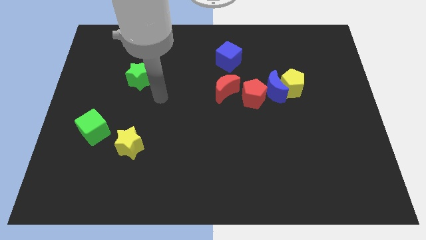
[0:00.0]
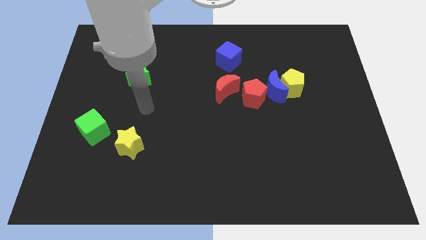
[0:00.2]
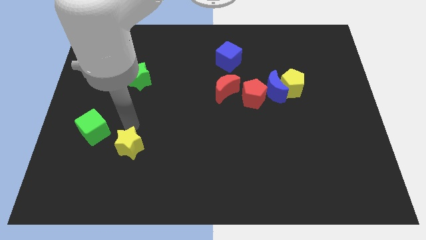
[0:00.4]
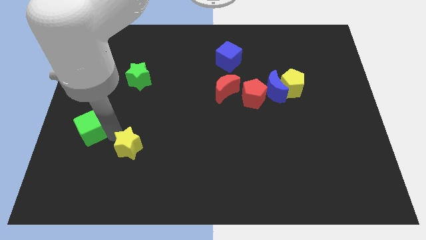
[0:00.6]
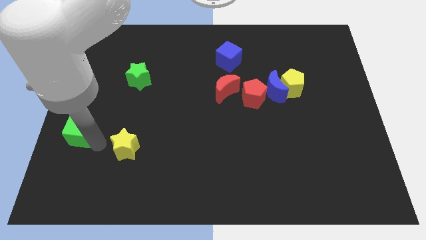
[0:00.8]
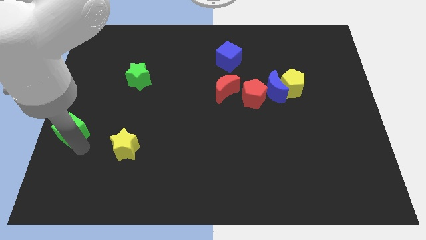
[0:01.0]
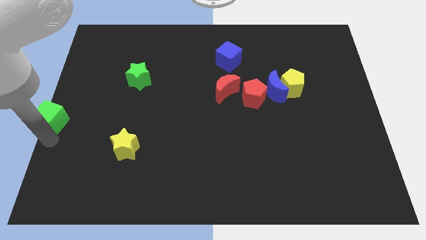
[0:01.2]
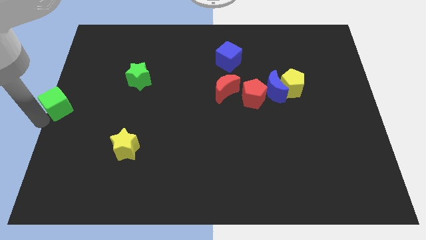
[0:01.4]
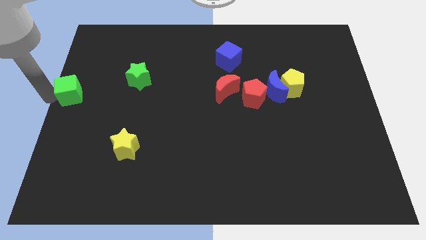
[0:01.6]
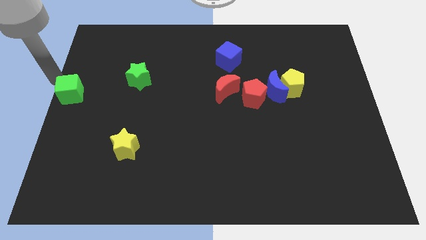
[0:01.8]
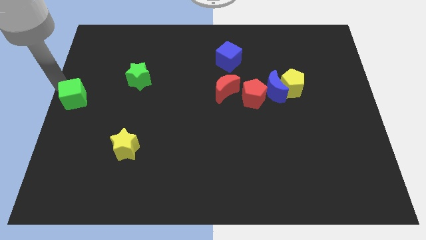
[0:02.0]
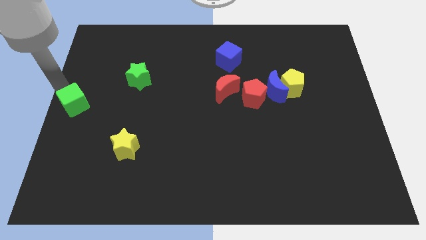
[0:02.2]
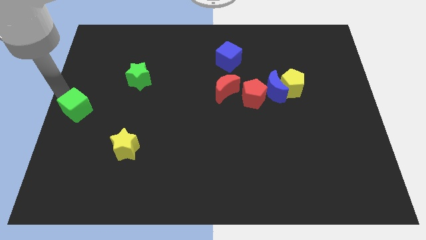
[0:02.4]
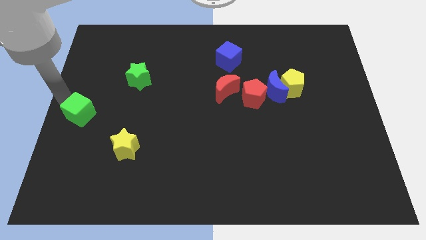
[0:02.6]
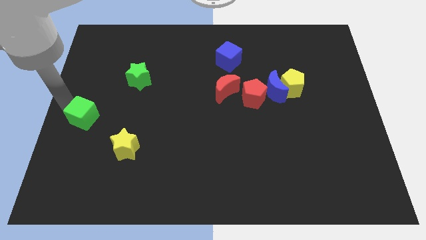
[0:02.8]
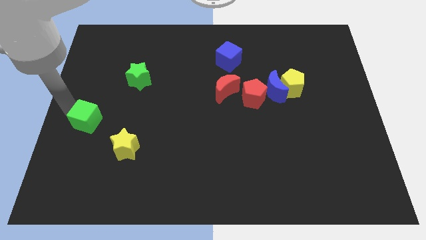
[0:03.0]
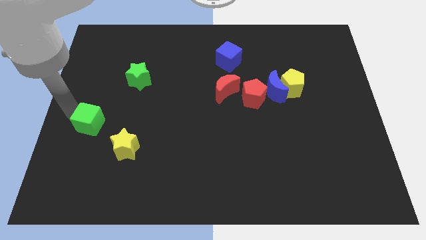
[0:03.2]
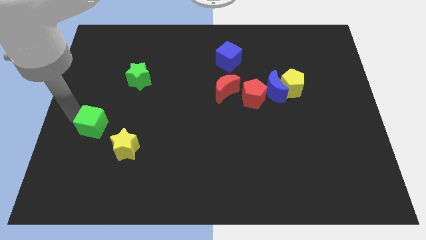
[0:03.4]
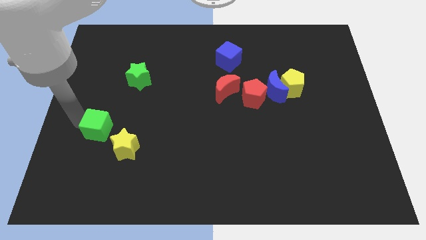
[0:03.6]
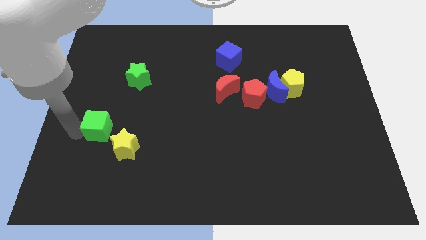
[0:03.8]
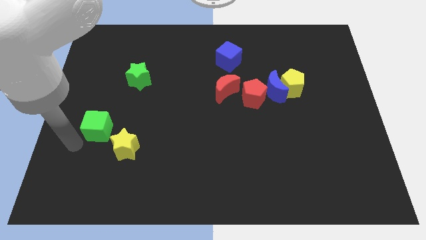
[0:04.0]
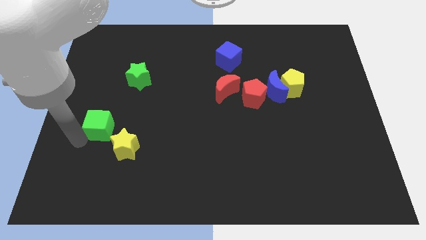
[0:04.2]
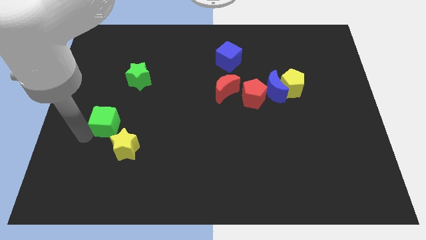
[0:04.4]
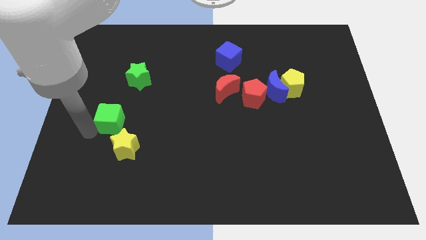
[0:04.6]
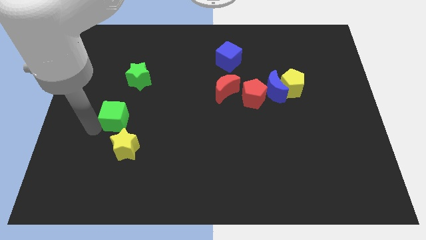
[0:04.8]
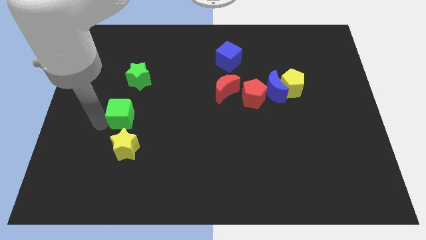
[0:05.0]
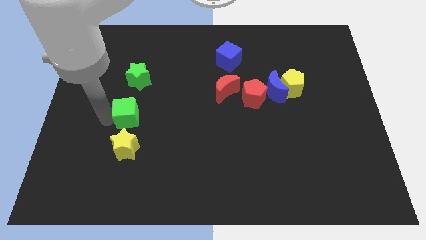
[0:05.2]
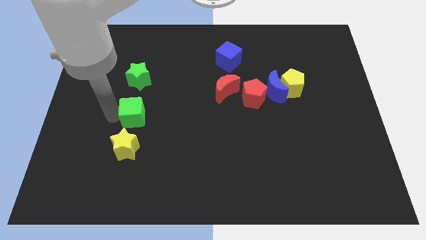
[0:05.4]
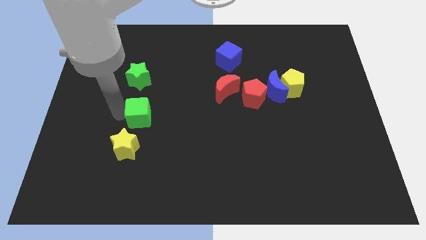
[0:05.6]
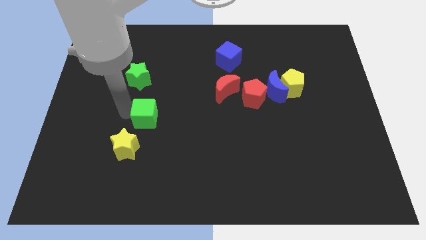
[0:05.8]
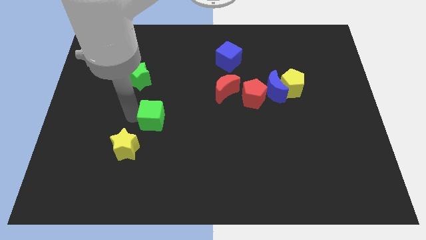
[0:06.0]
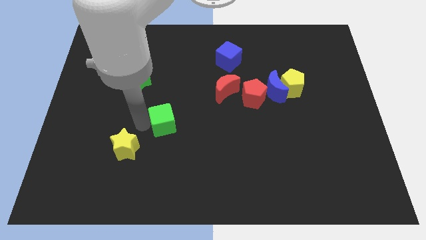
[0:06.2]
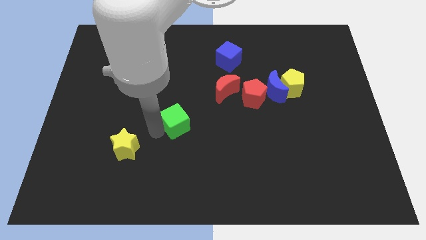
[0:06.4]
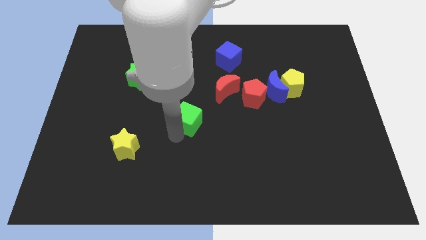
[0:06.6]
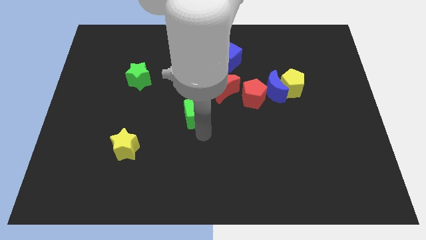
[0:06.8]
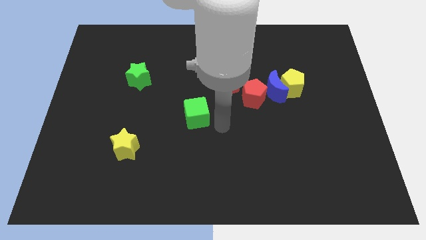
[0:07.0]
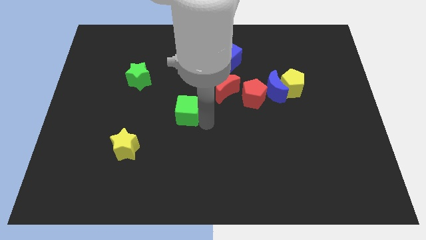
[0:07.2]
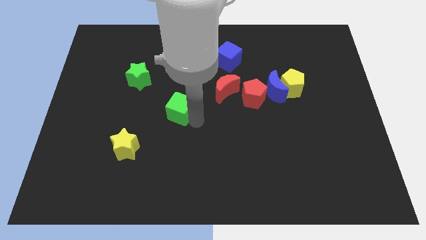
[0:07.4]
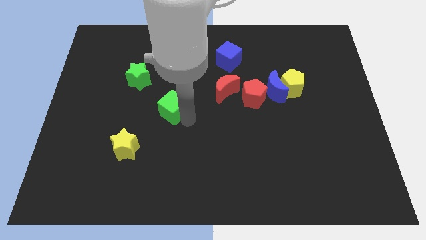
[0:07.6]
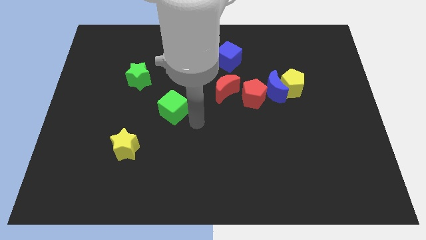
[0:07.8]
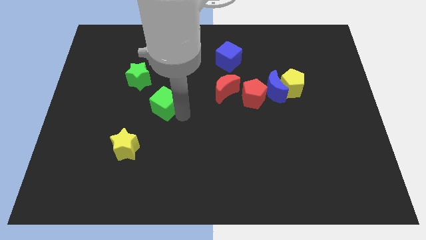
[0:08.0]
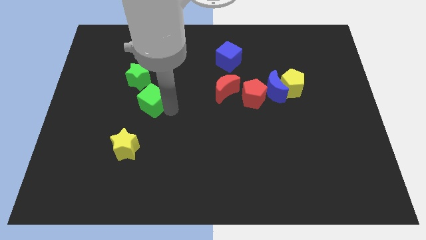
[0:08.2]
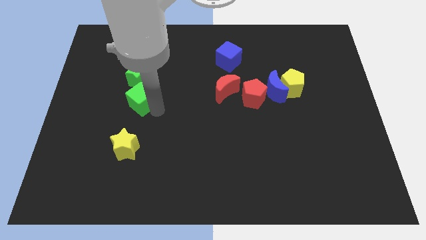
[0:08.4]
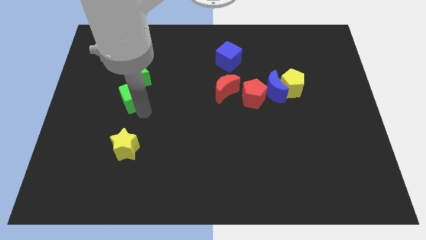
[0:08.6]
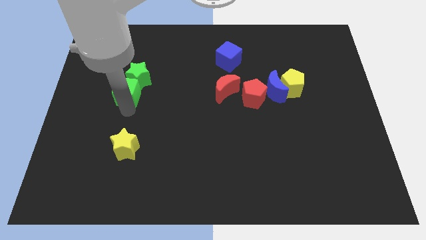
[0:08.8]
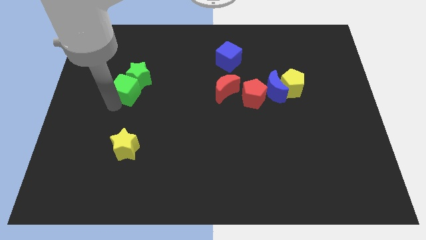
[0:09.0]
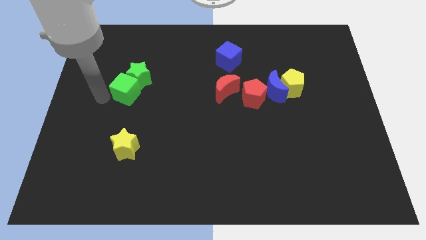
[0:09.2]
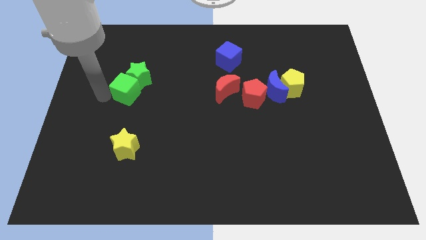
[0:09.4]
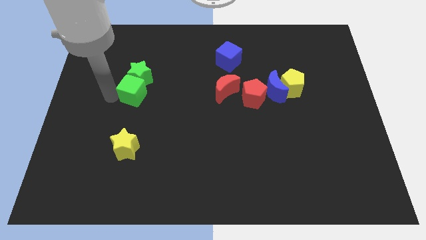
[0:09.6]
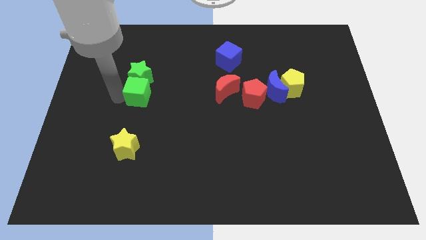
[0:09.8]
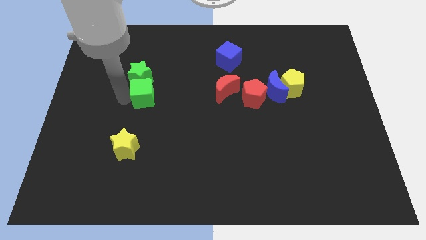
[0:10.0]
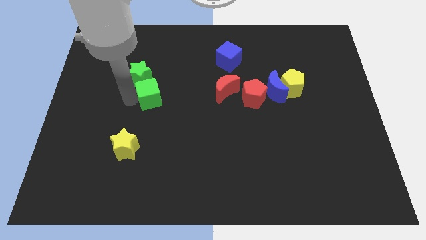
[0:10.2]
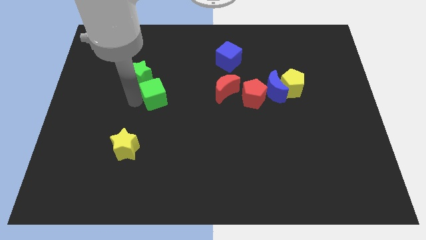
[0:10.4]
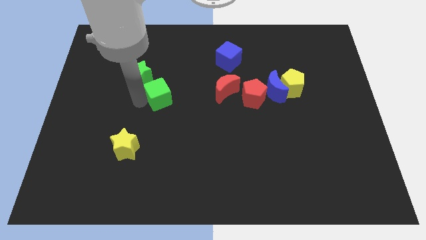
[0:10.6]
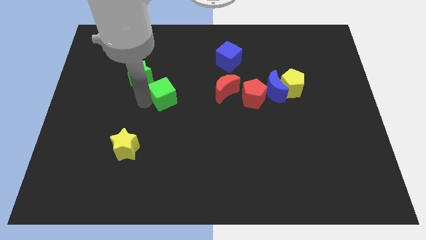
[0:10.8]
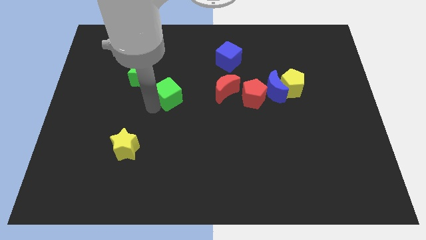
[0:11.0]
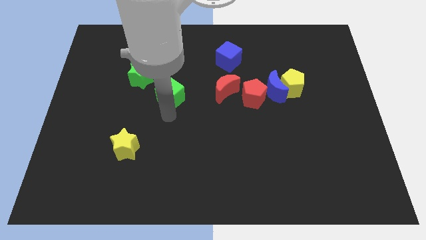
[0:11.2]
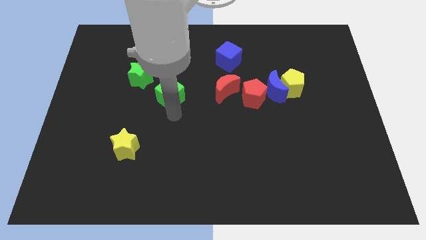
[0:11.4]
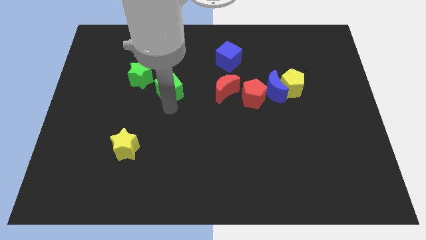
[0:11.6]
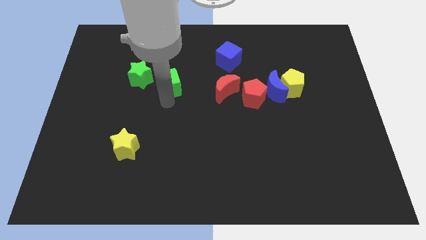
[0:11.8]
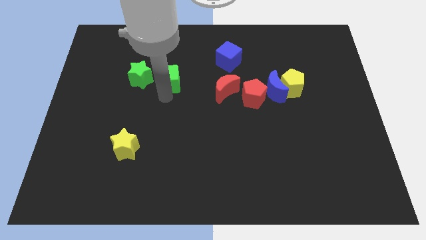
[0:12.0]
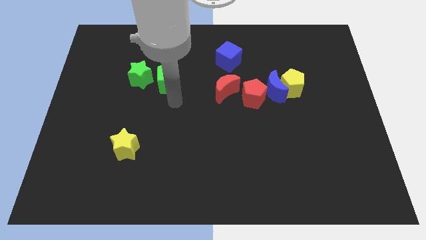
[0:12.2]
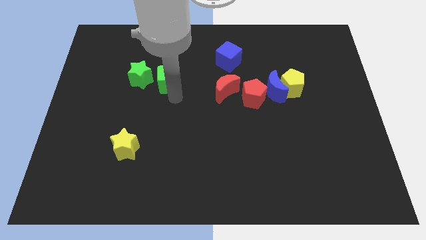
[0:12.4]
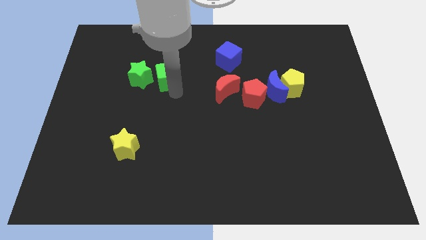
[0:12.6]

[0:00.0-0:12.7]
move the green cube diagonally up and to the right of the green star
